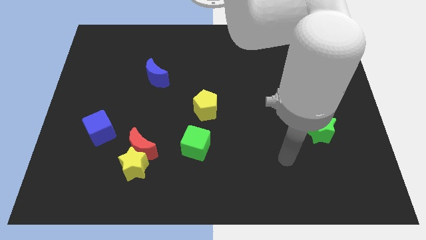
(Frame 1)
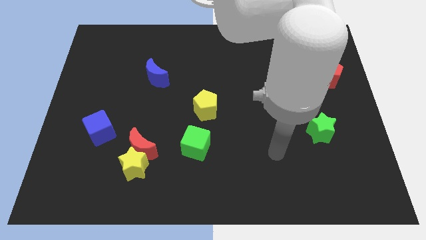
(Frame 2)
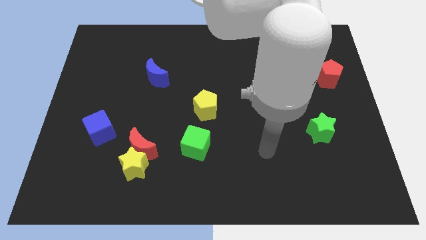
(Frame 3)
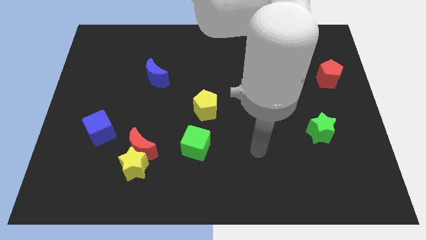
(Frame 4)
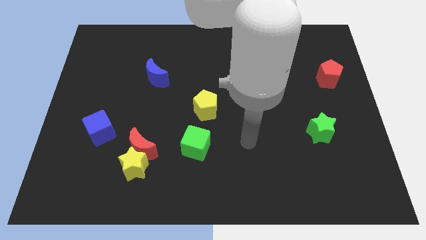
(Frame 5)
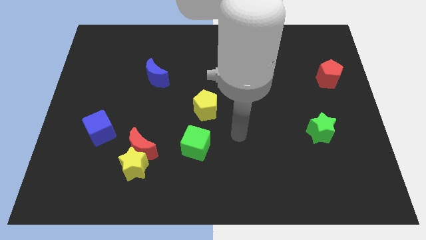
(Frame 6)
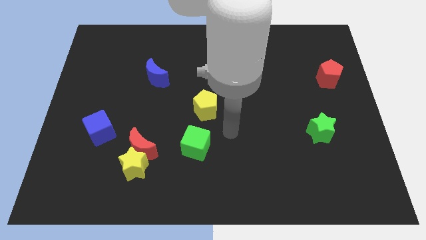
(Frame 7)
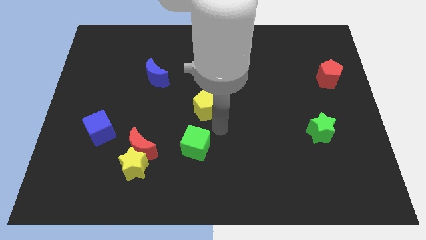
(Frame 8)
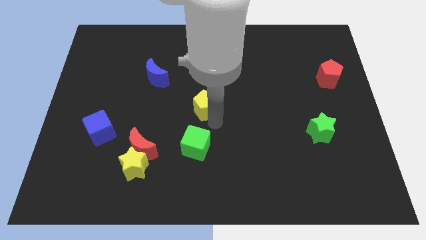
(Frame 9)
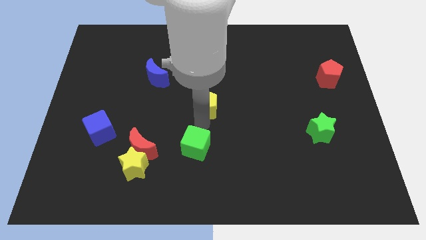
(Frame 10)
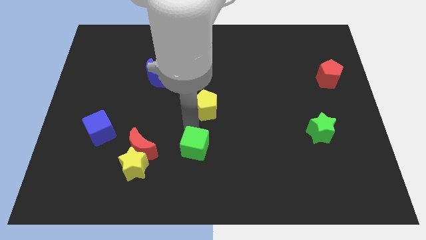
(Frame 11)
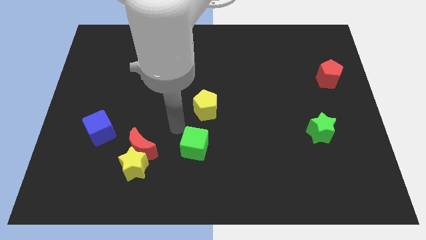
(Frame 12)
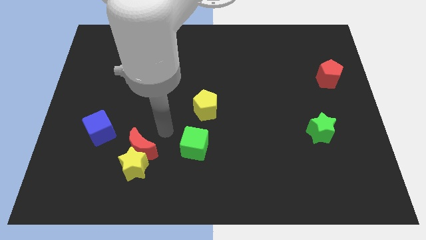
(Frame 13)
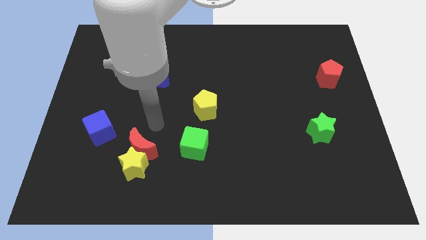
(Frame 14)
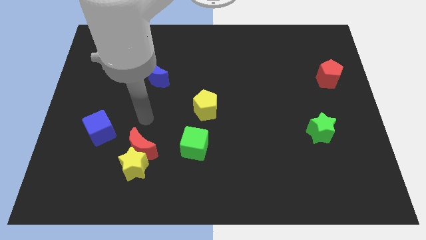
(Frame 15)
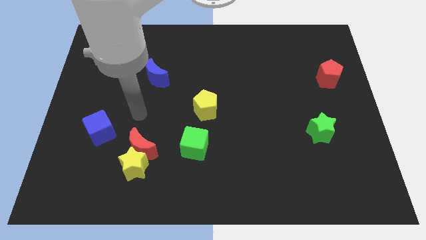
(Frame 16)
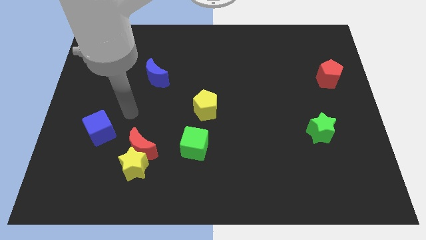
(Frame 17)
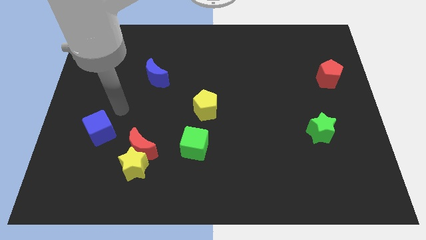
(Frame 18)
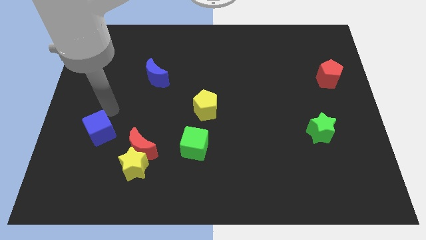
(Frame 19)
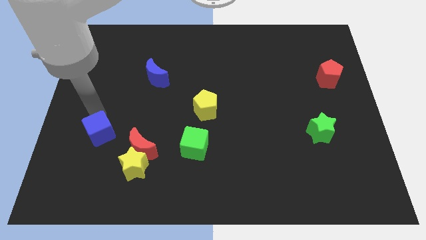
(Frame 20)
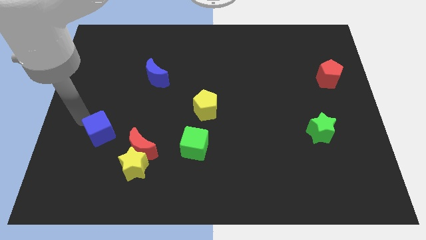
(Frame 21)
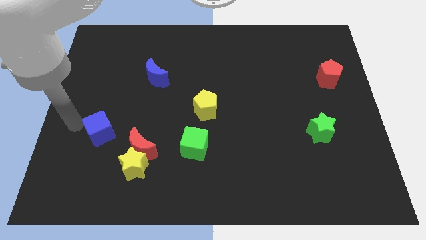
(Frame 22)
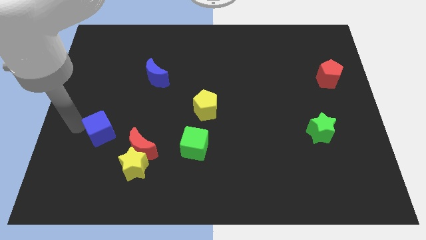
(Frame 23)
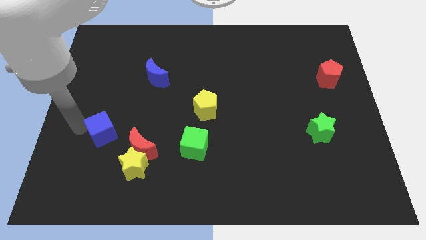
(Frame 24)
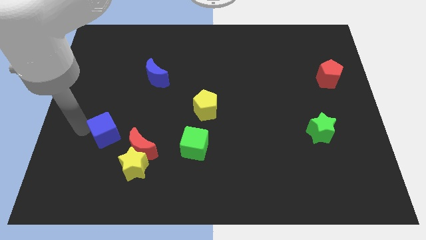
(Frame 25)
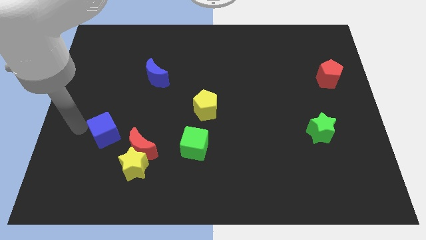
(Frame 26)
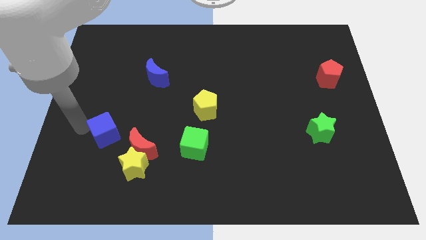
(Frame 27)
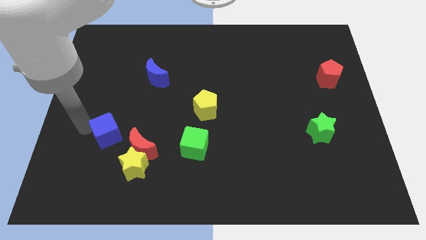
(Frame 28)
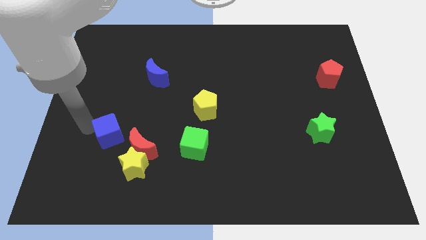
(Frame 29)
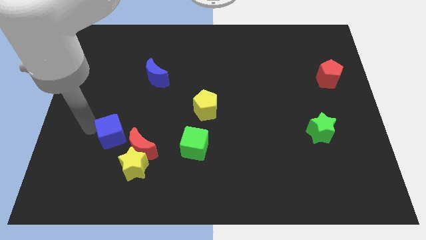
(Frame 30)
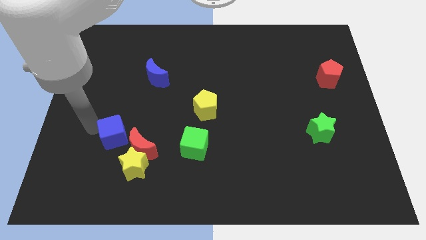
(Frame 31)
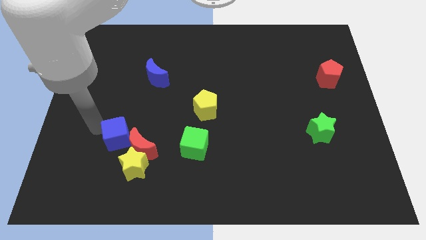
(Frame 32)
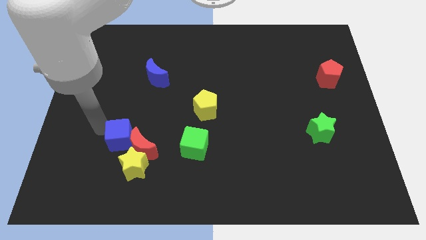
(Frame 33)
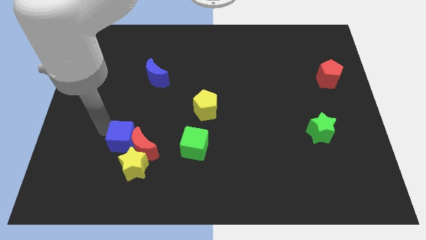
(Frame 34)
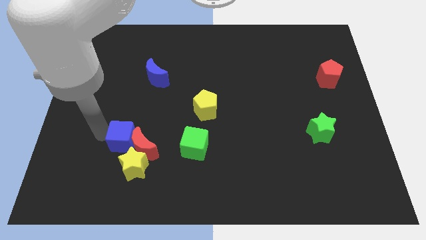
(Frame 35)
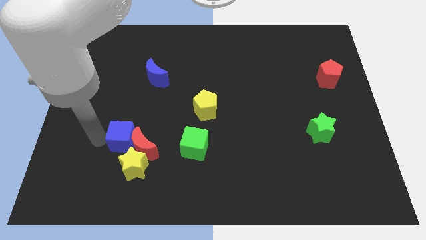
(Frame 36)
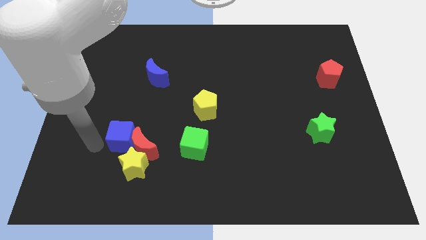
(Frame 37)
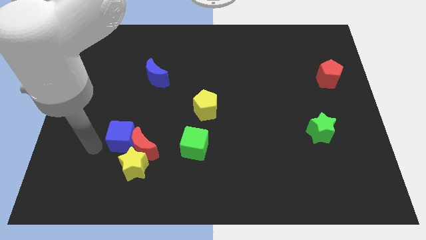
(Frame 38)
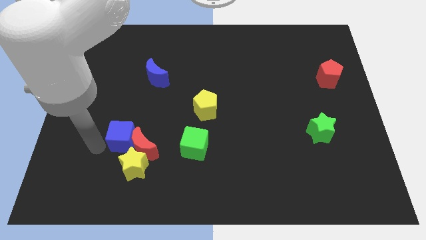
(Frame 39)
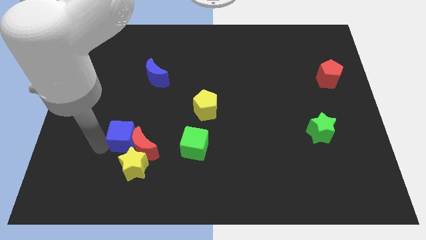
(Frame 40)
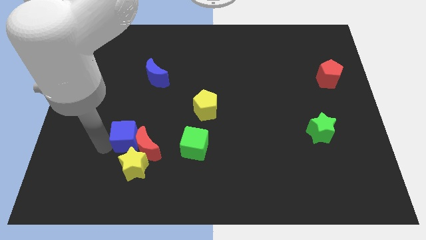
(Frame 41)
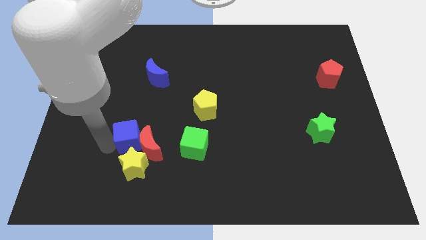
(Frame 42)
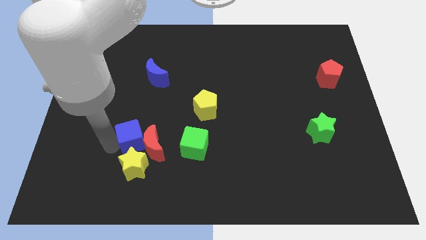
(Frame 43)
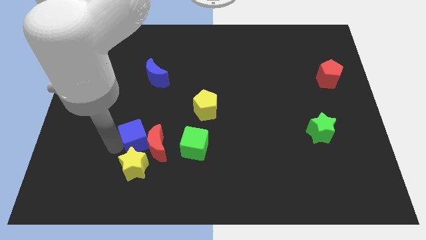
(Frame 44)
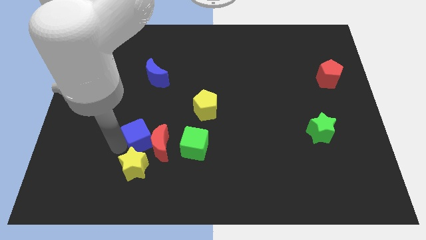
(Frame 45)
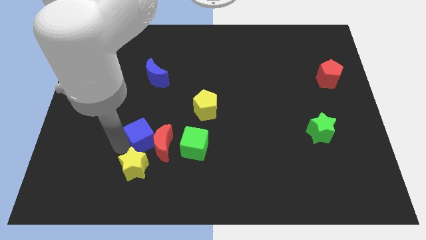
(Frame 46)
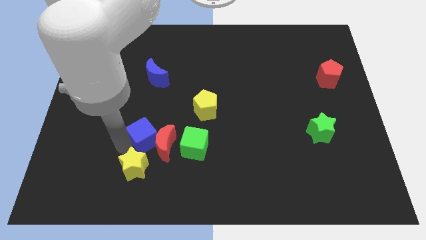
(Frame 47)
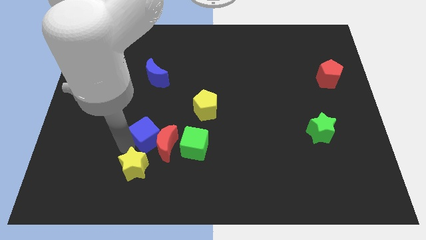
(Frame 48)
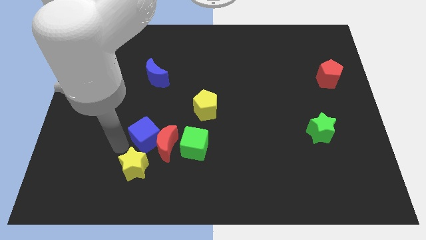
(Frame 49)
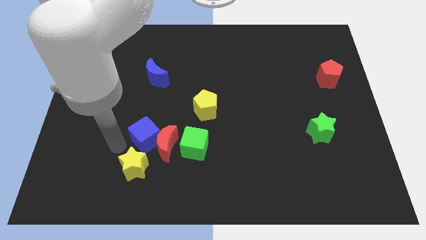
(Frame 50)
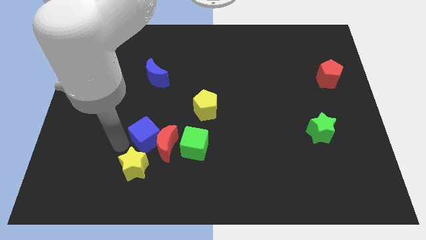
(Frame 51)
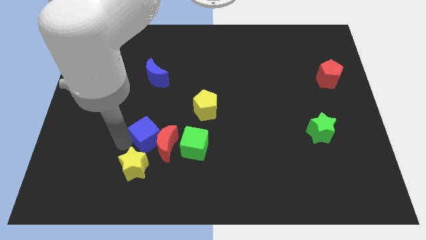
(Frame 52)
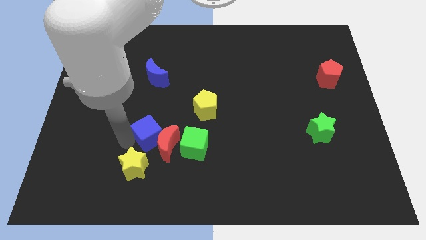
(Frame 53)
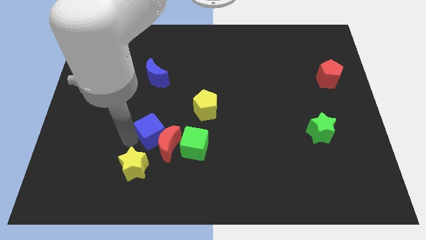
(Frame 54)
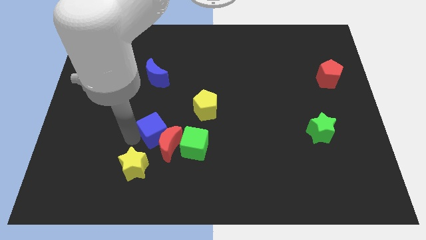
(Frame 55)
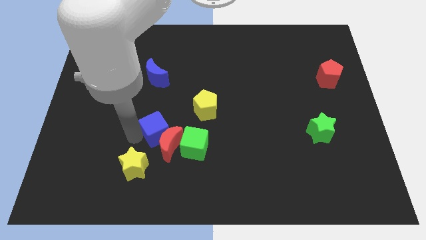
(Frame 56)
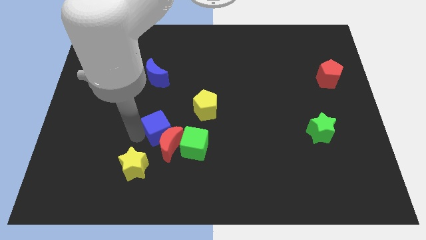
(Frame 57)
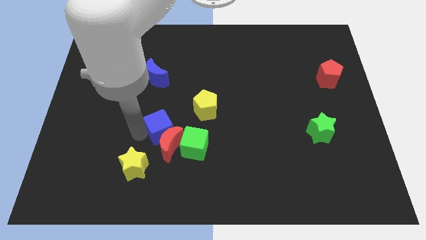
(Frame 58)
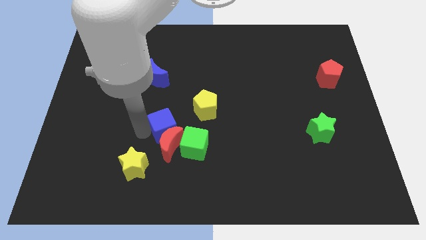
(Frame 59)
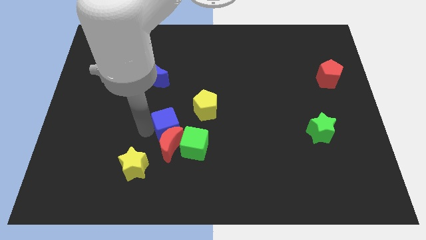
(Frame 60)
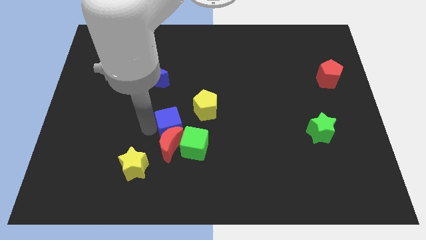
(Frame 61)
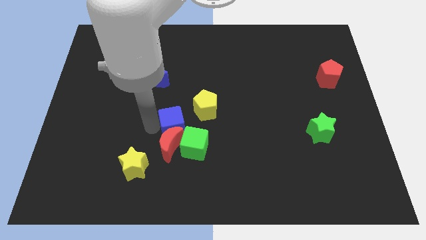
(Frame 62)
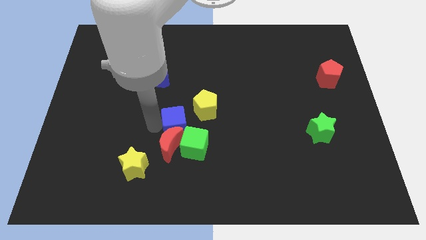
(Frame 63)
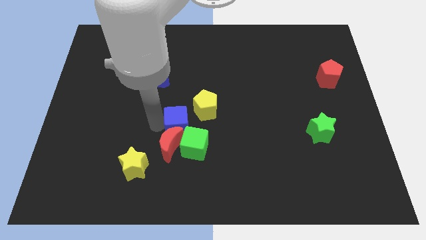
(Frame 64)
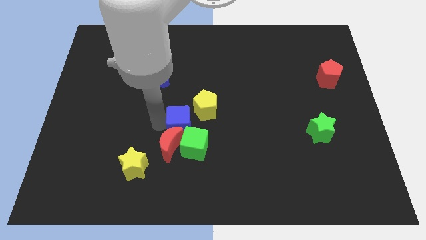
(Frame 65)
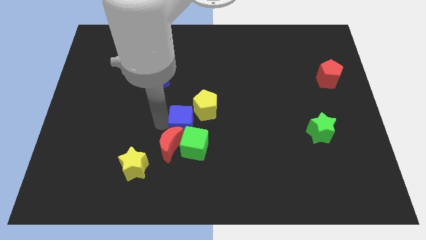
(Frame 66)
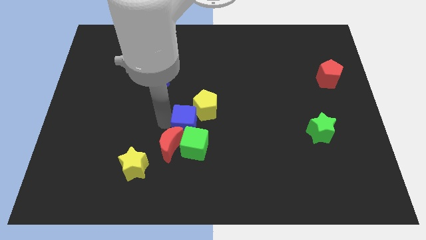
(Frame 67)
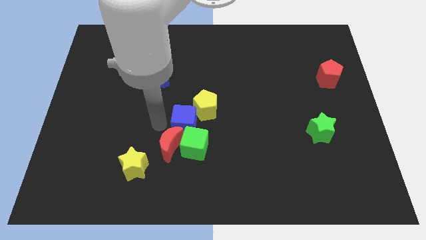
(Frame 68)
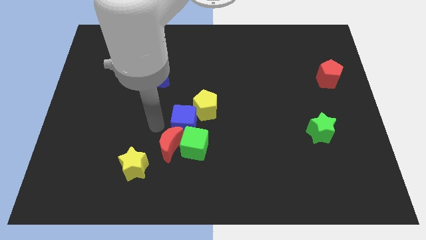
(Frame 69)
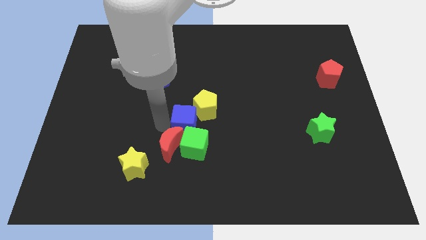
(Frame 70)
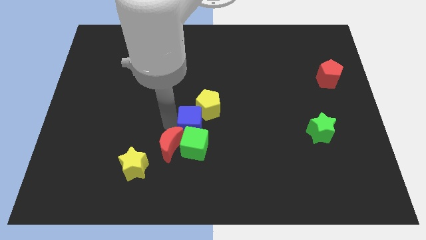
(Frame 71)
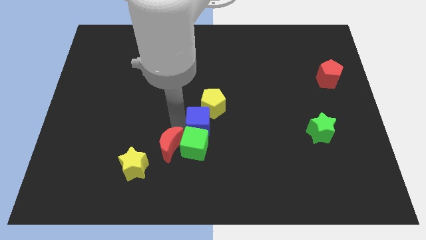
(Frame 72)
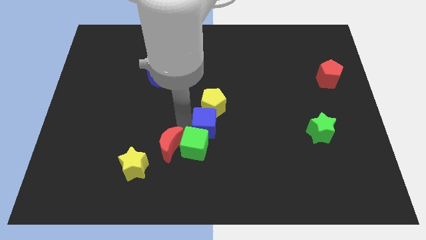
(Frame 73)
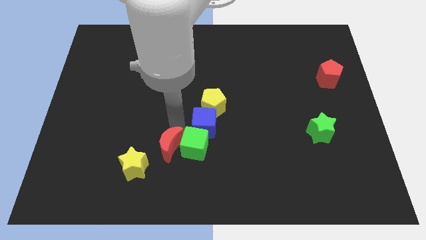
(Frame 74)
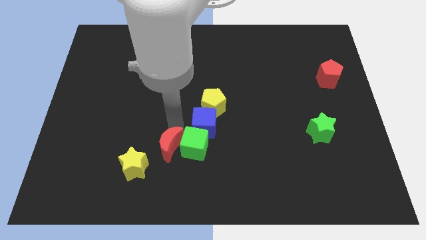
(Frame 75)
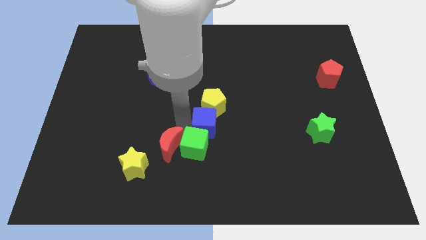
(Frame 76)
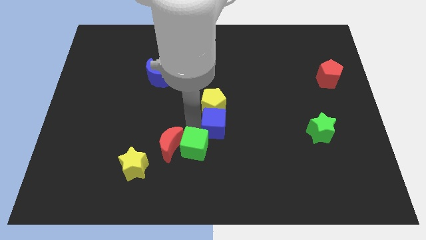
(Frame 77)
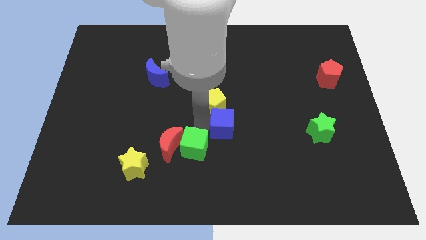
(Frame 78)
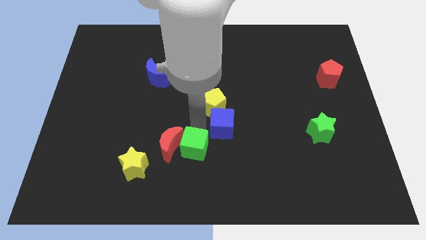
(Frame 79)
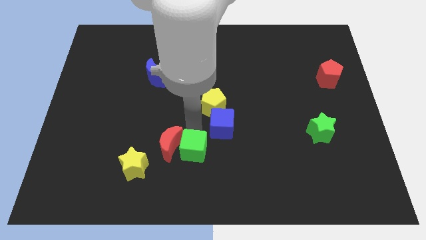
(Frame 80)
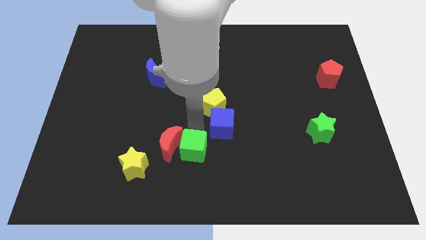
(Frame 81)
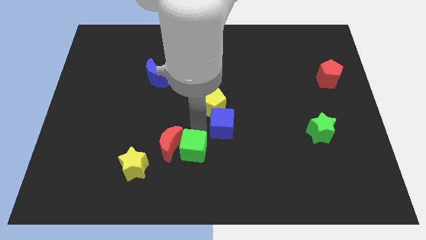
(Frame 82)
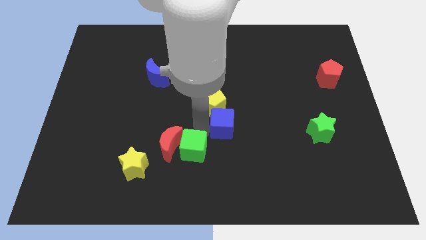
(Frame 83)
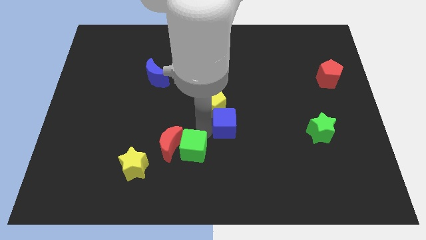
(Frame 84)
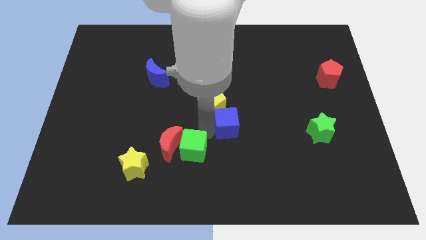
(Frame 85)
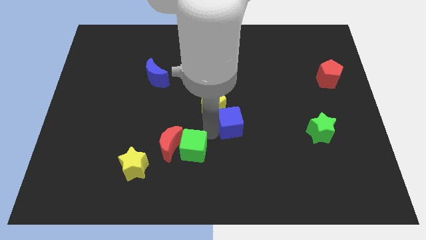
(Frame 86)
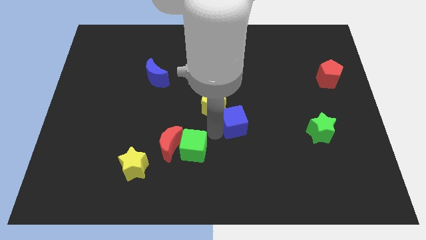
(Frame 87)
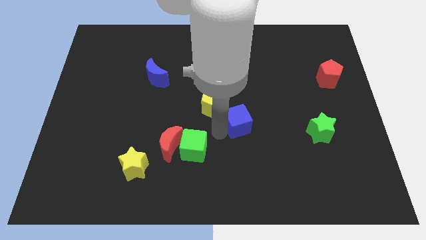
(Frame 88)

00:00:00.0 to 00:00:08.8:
slide the blue cube to the right side of the yellow pentagon
